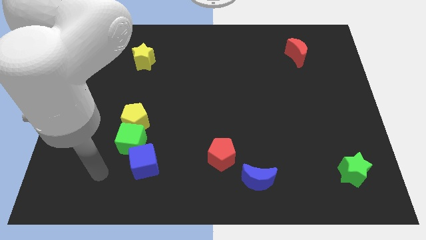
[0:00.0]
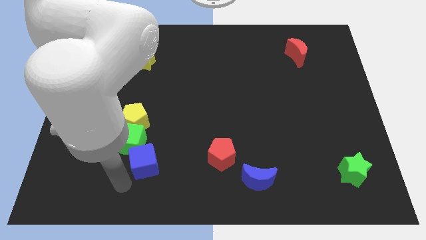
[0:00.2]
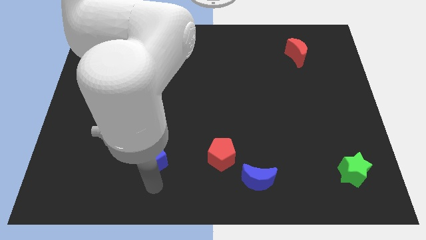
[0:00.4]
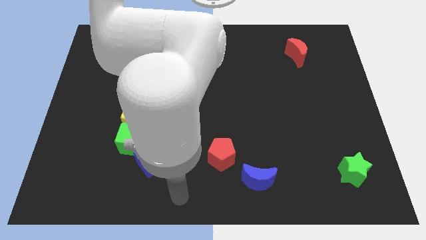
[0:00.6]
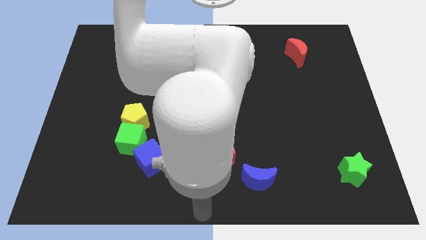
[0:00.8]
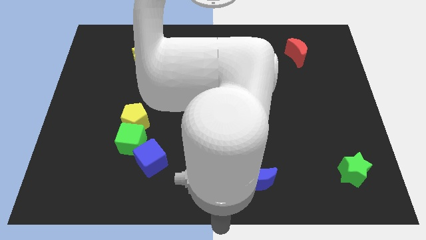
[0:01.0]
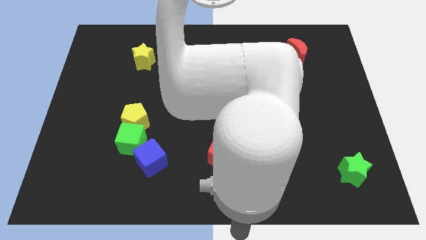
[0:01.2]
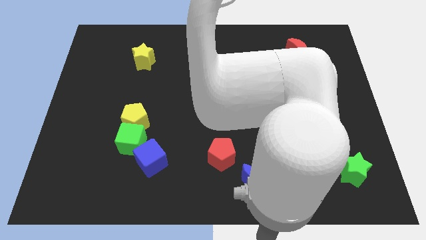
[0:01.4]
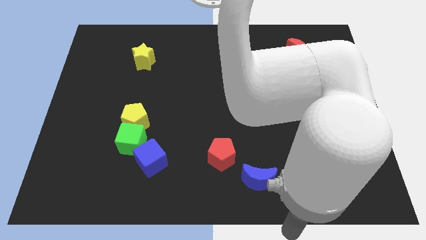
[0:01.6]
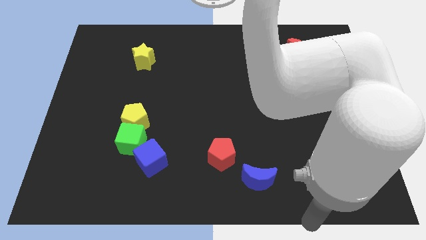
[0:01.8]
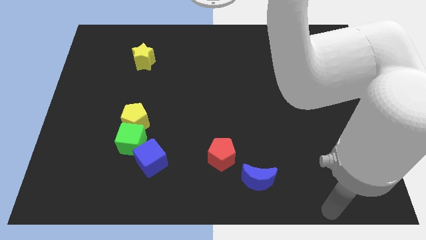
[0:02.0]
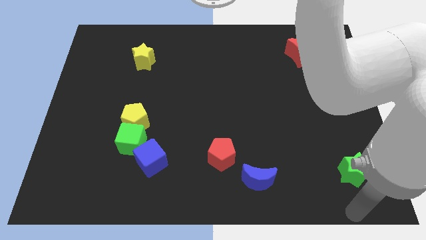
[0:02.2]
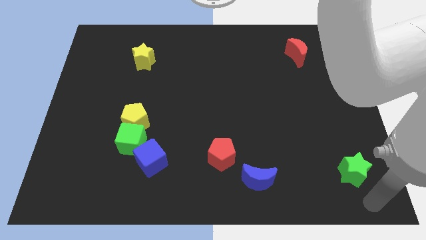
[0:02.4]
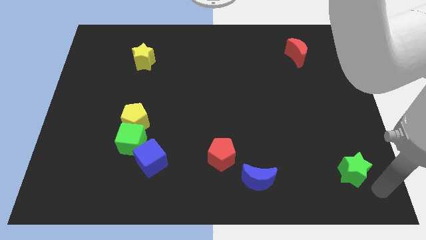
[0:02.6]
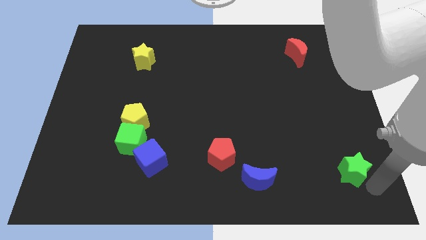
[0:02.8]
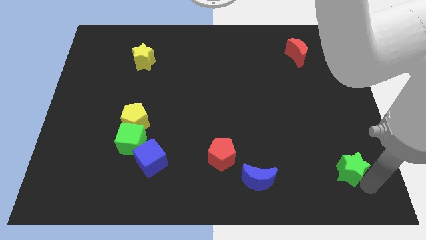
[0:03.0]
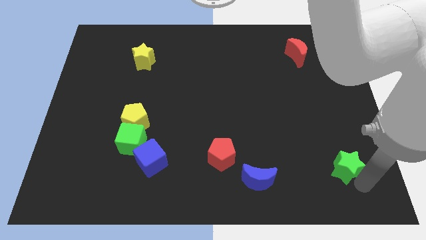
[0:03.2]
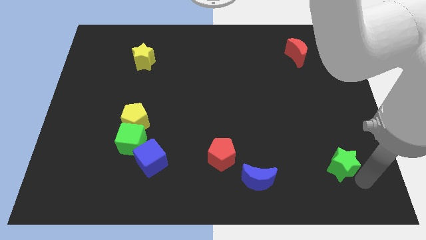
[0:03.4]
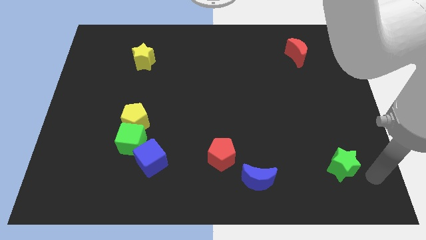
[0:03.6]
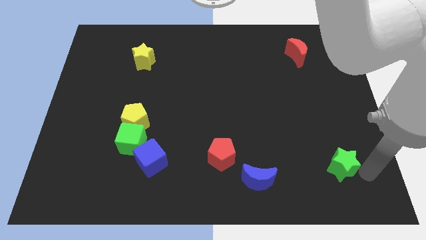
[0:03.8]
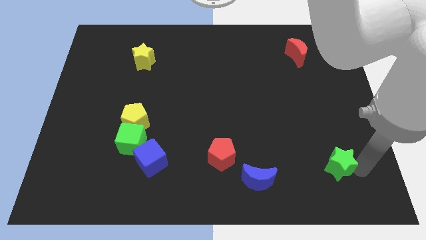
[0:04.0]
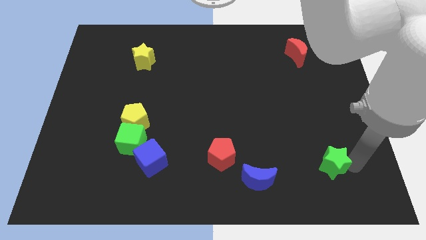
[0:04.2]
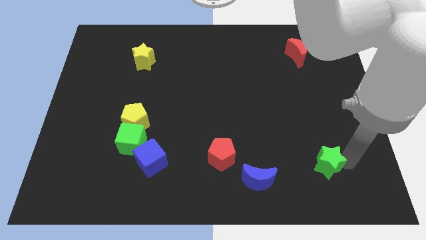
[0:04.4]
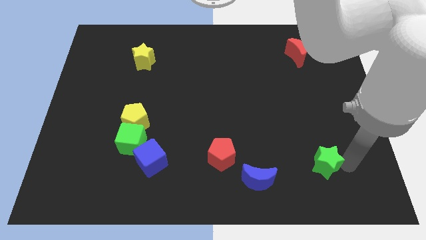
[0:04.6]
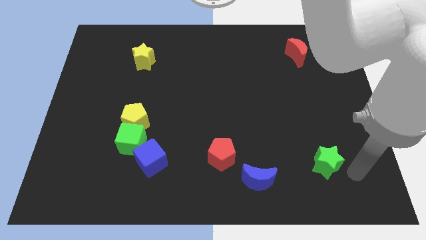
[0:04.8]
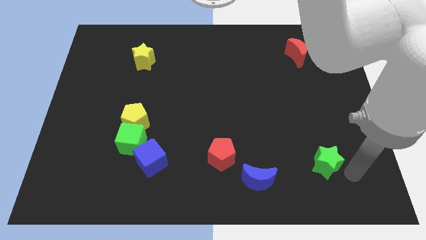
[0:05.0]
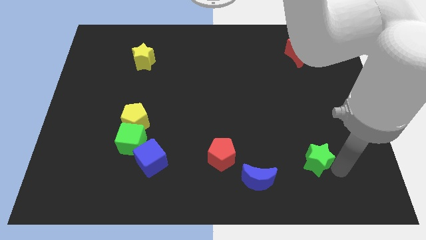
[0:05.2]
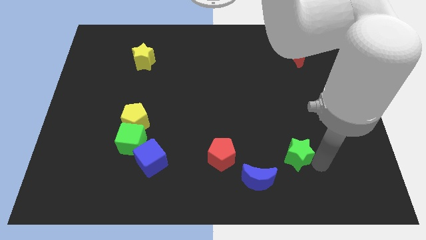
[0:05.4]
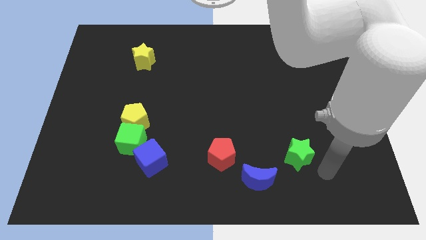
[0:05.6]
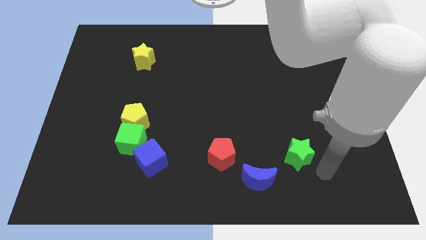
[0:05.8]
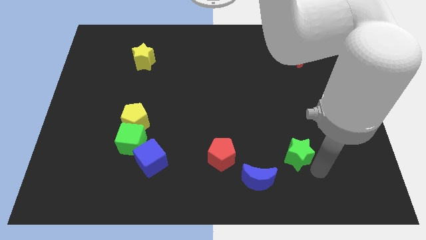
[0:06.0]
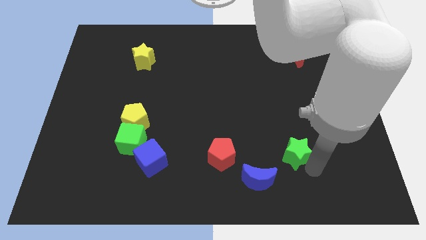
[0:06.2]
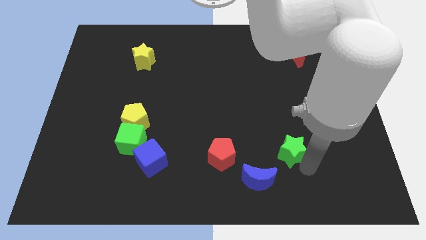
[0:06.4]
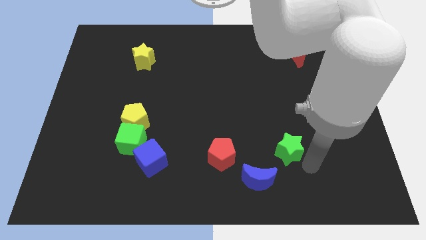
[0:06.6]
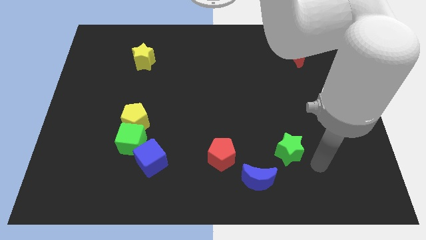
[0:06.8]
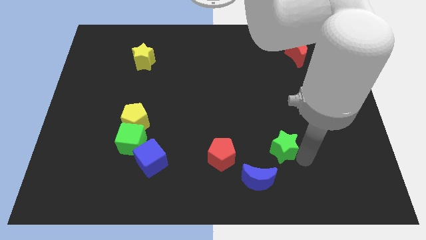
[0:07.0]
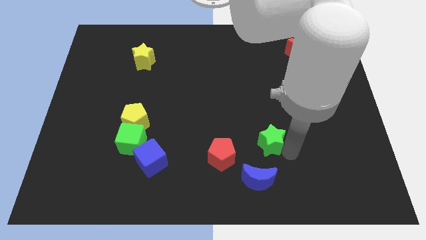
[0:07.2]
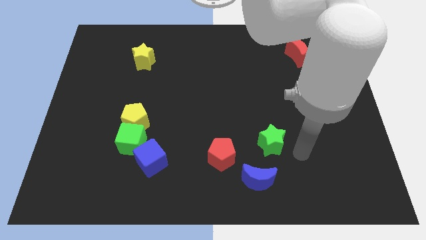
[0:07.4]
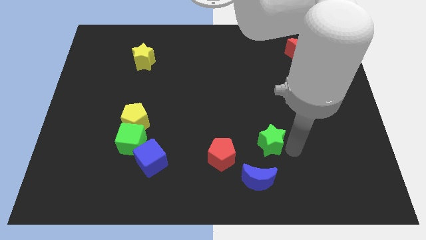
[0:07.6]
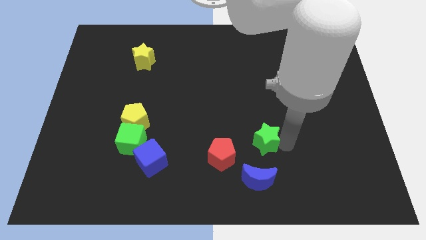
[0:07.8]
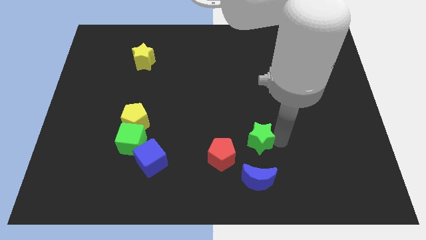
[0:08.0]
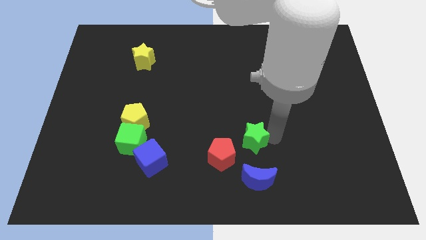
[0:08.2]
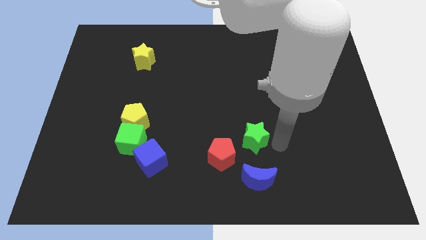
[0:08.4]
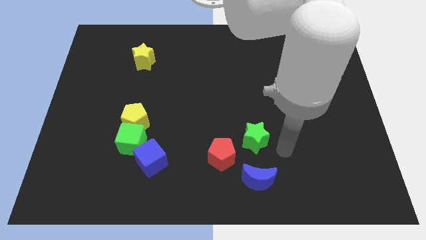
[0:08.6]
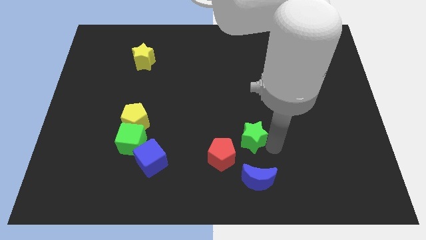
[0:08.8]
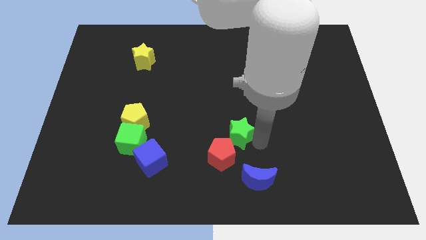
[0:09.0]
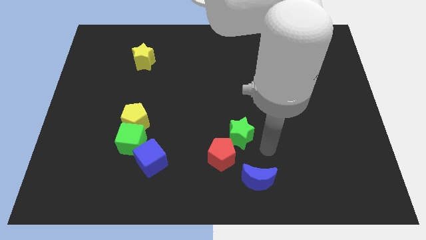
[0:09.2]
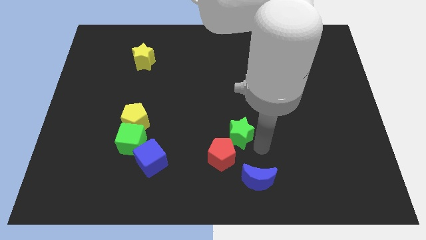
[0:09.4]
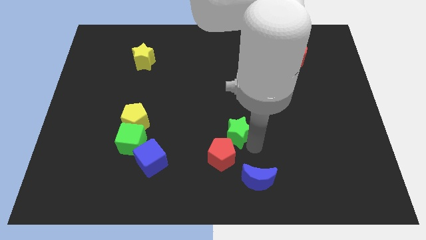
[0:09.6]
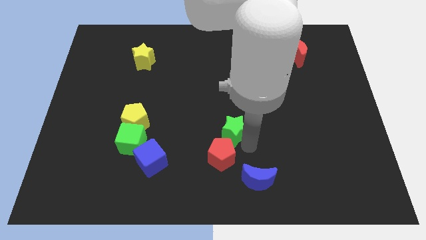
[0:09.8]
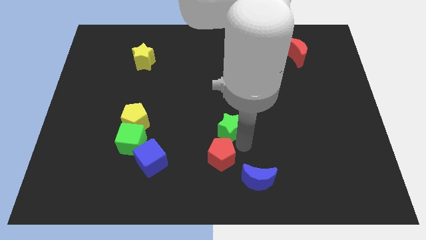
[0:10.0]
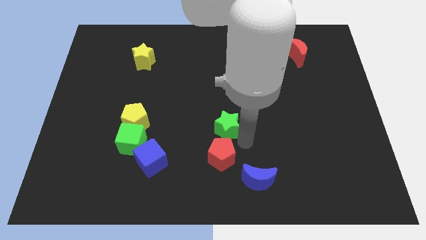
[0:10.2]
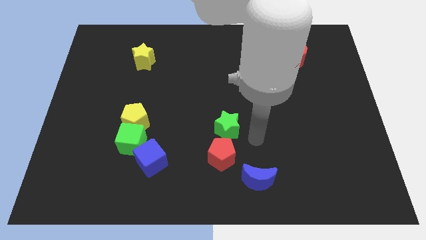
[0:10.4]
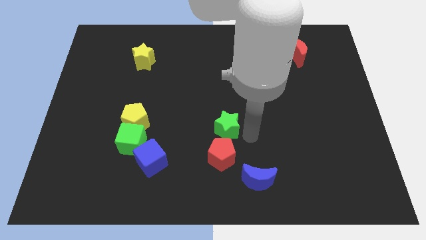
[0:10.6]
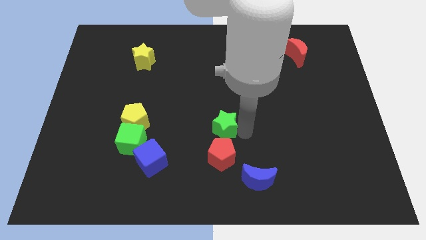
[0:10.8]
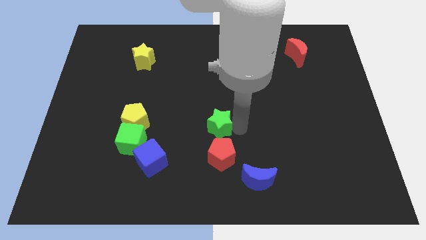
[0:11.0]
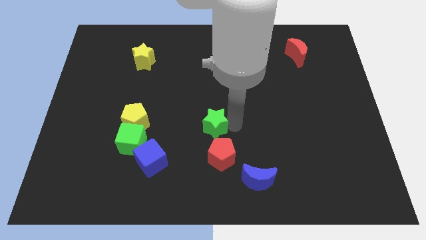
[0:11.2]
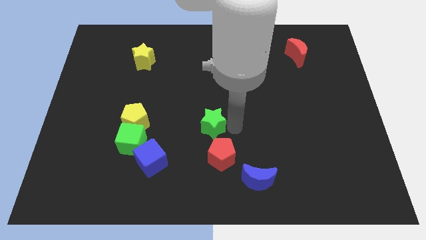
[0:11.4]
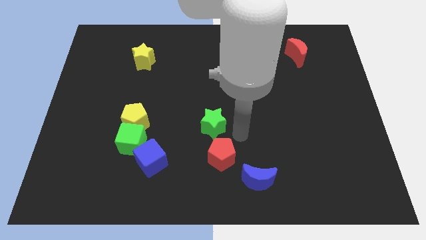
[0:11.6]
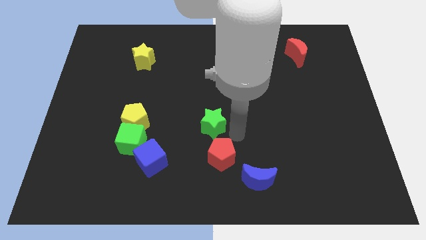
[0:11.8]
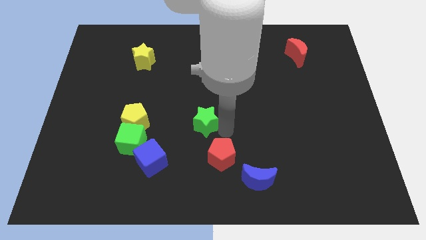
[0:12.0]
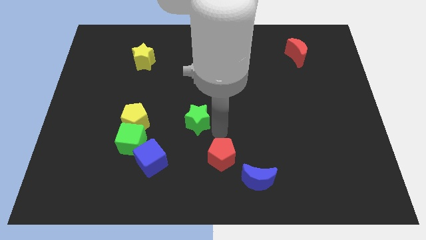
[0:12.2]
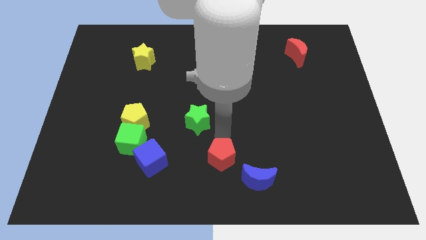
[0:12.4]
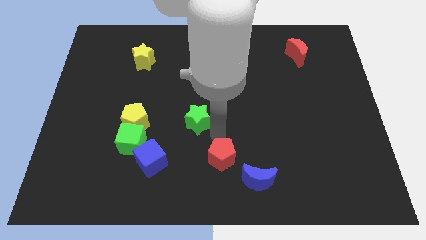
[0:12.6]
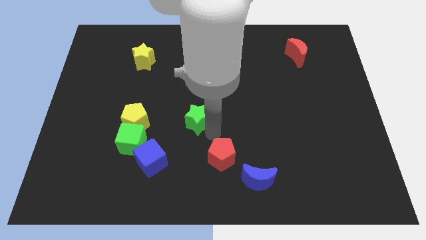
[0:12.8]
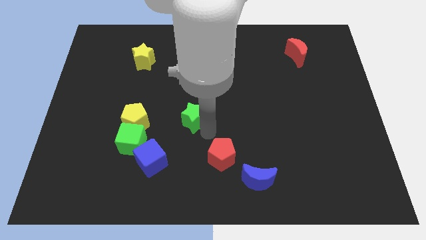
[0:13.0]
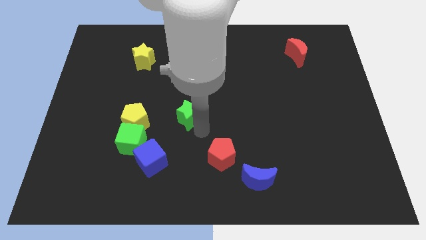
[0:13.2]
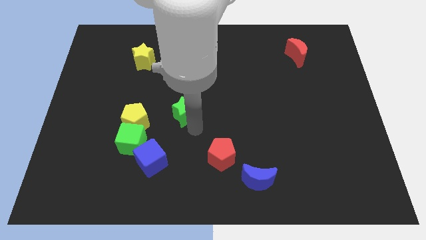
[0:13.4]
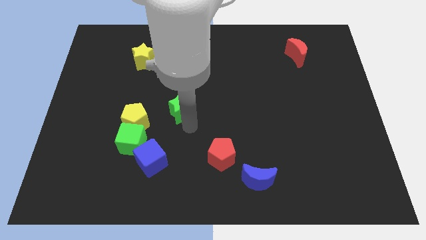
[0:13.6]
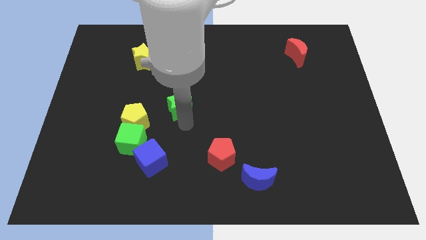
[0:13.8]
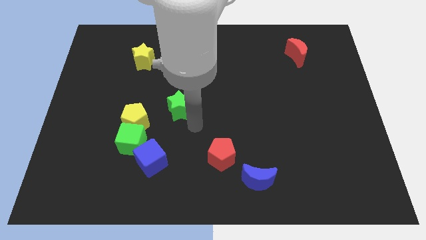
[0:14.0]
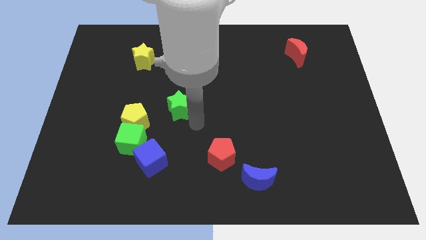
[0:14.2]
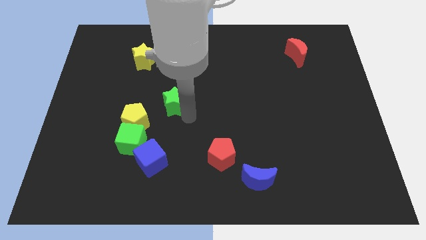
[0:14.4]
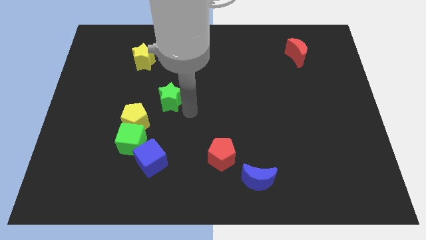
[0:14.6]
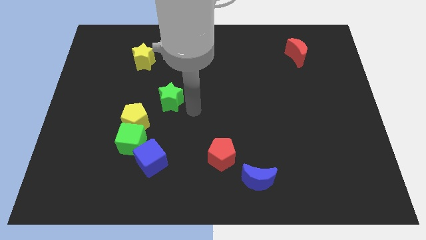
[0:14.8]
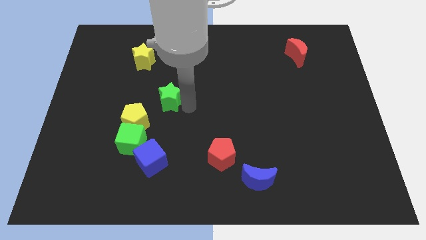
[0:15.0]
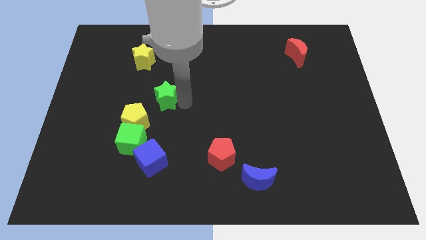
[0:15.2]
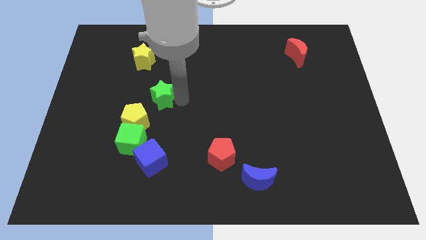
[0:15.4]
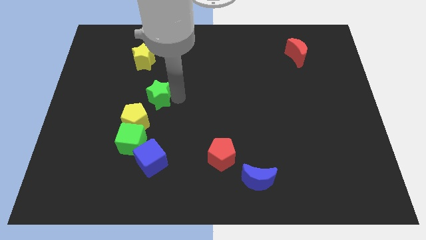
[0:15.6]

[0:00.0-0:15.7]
slide the green star to the top of the yellow pentagon
